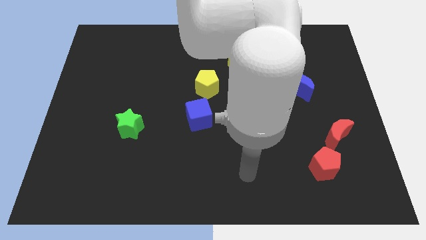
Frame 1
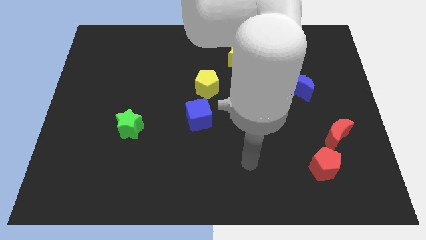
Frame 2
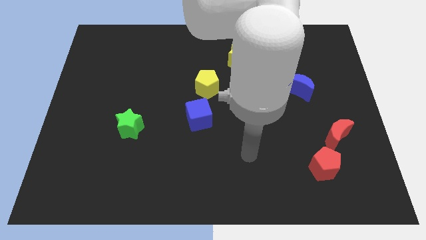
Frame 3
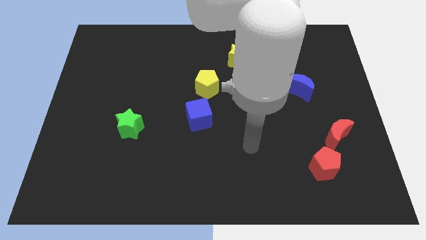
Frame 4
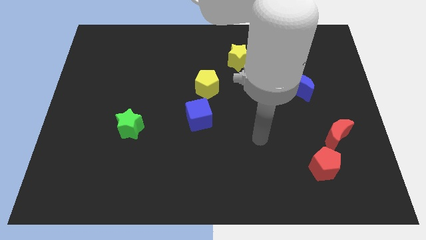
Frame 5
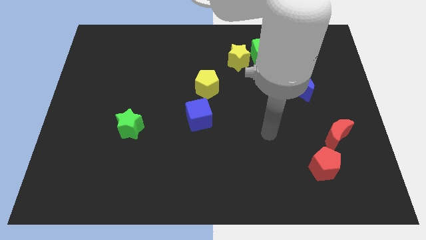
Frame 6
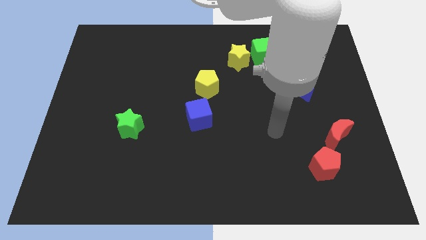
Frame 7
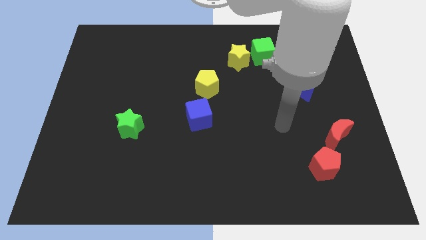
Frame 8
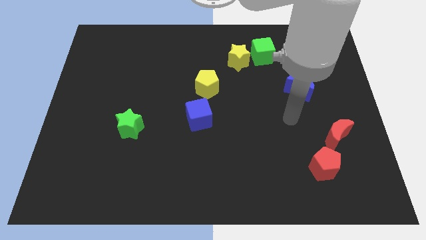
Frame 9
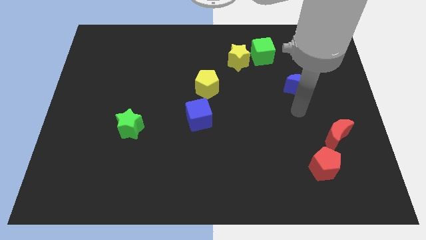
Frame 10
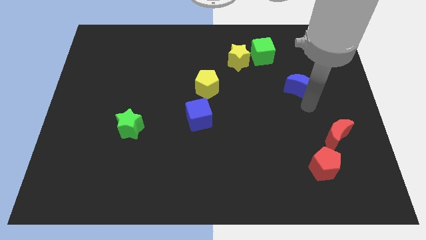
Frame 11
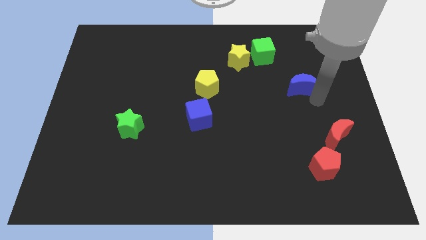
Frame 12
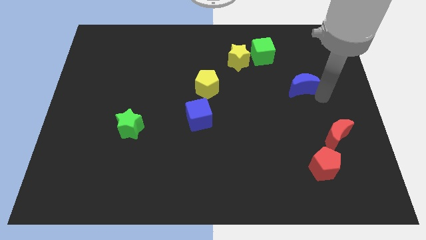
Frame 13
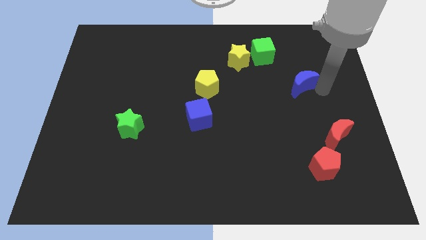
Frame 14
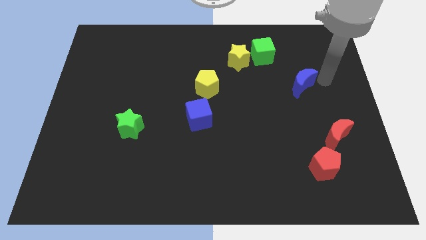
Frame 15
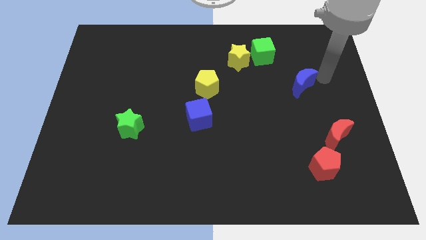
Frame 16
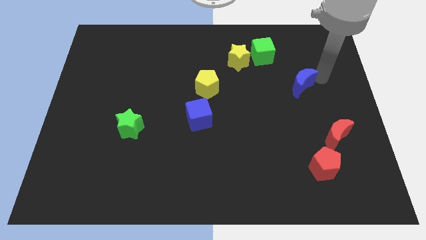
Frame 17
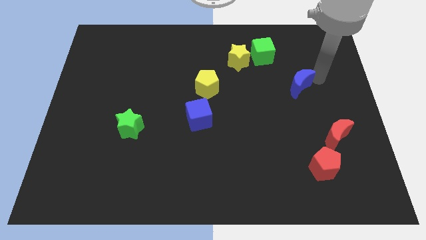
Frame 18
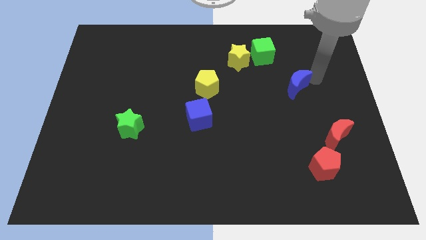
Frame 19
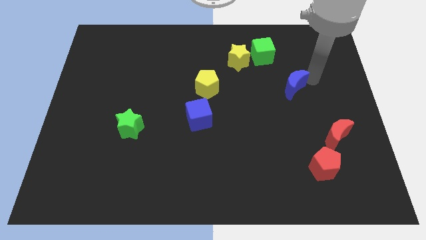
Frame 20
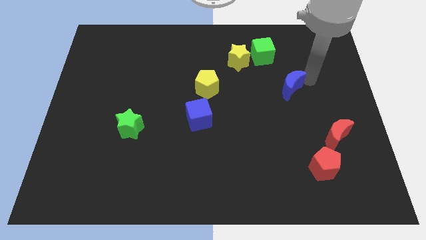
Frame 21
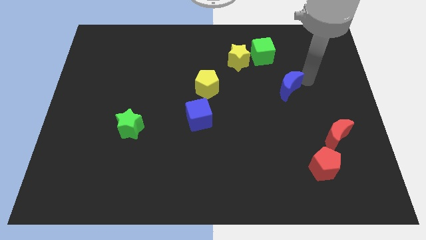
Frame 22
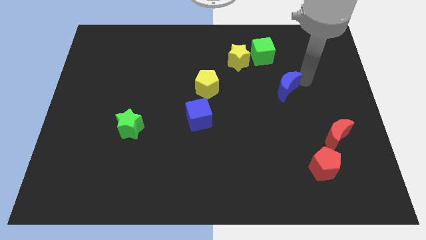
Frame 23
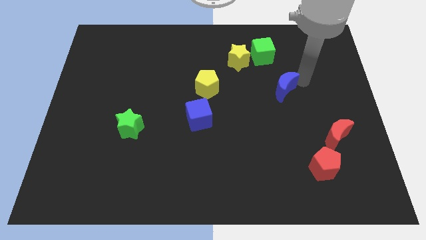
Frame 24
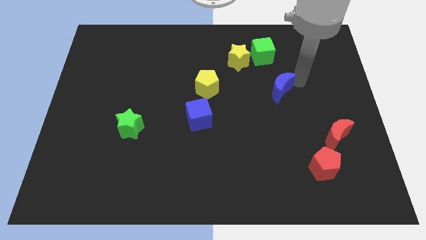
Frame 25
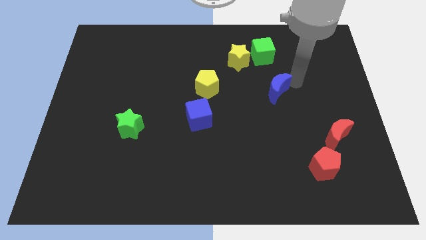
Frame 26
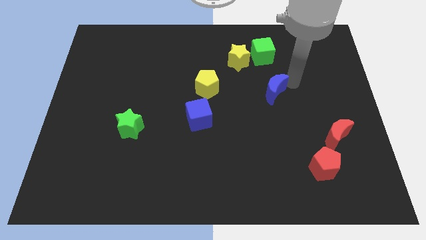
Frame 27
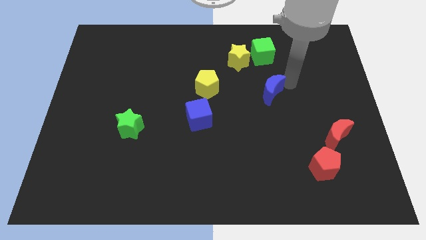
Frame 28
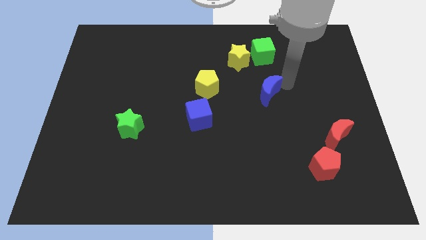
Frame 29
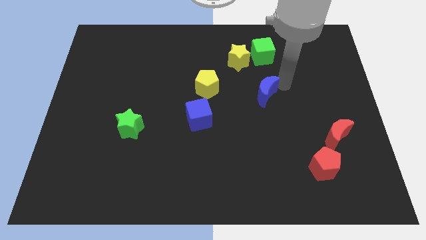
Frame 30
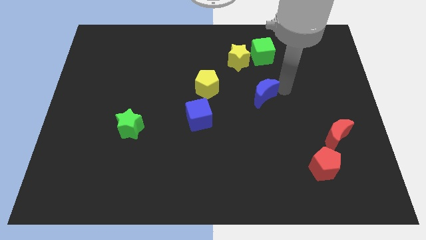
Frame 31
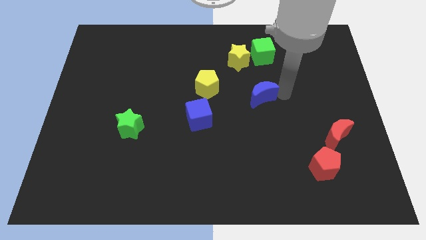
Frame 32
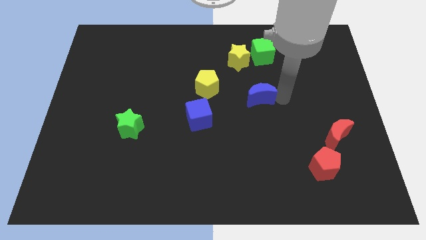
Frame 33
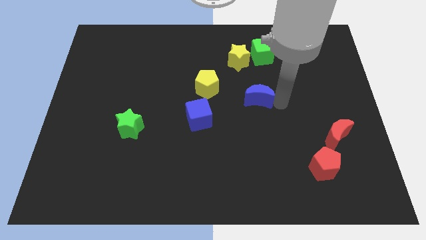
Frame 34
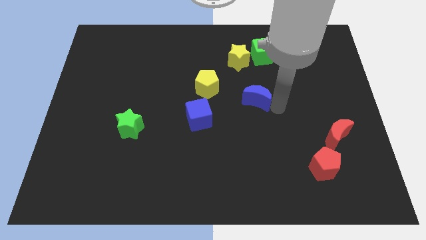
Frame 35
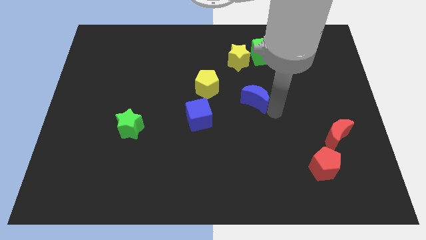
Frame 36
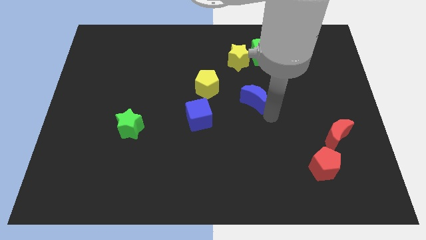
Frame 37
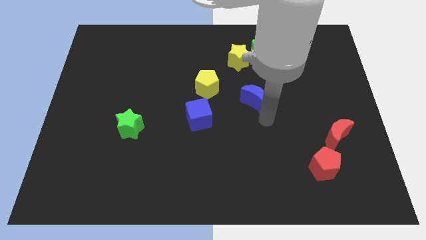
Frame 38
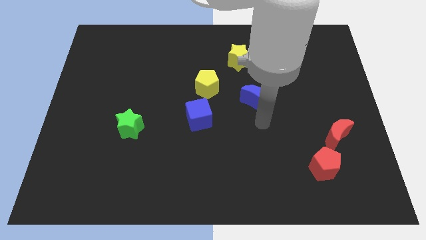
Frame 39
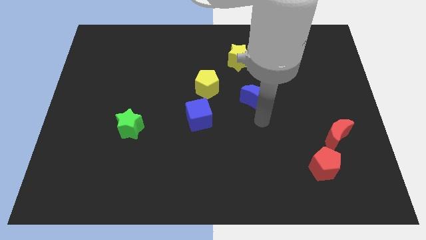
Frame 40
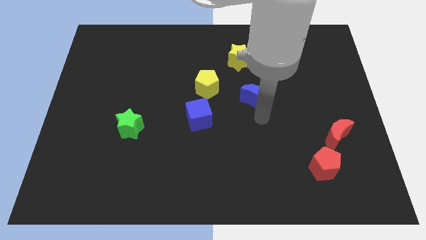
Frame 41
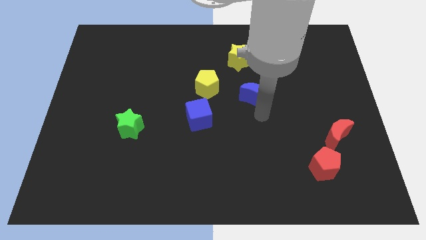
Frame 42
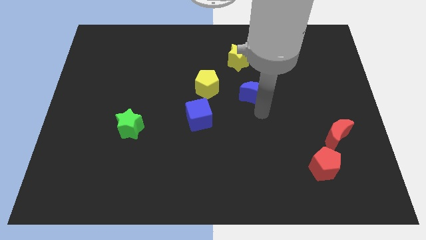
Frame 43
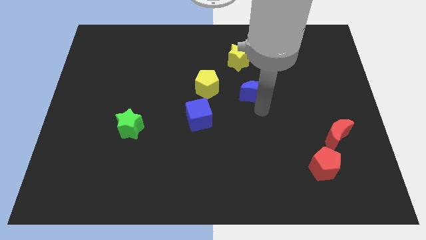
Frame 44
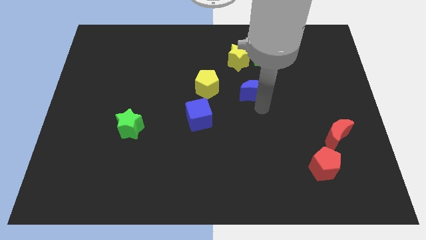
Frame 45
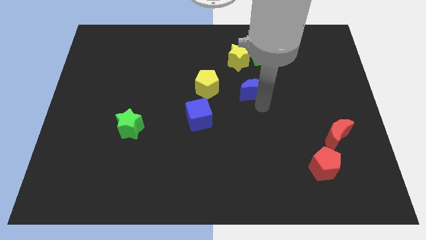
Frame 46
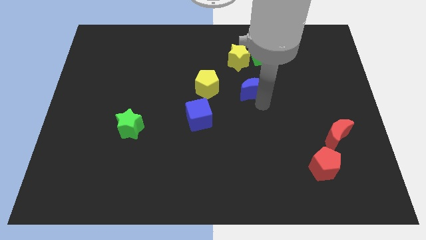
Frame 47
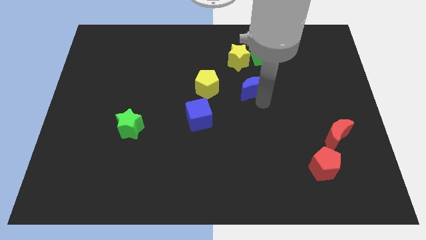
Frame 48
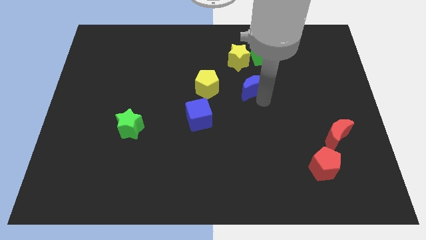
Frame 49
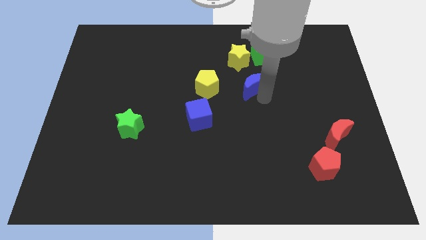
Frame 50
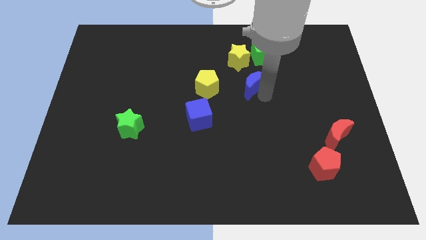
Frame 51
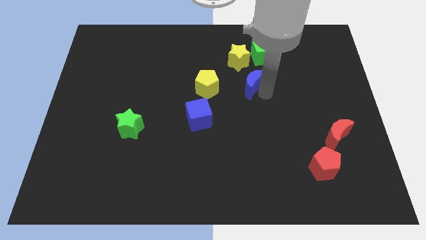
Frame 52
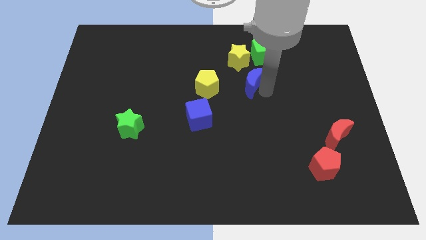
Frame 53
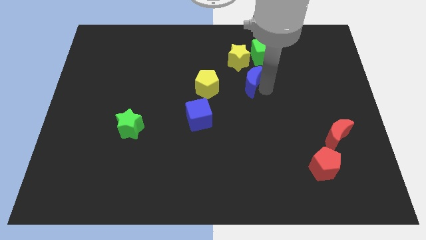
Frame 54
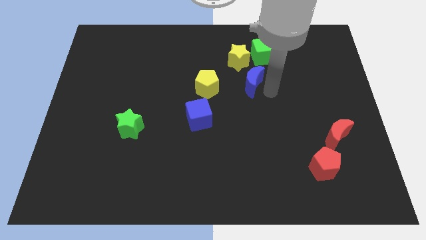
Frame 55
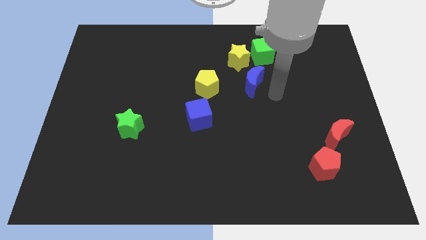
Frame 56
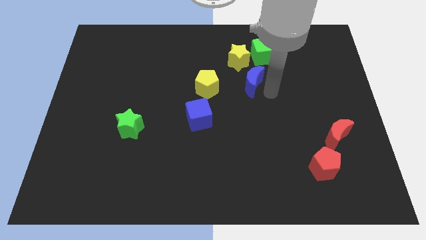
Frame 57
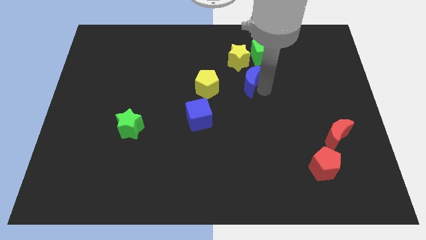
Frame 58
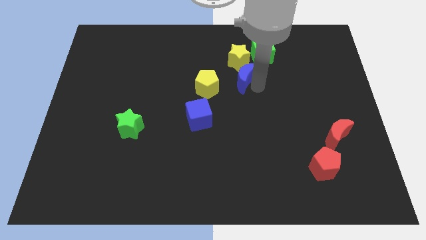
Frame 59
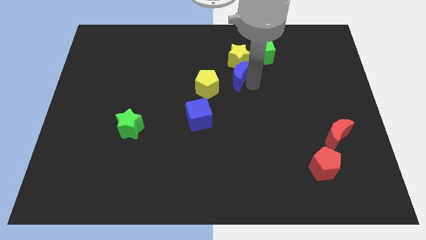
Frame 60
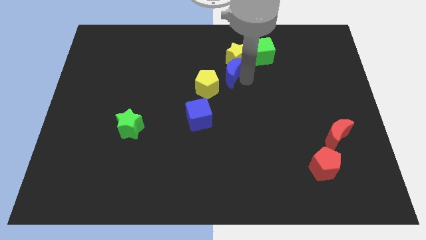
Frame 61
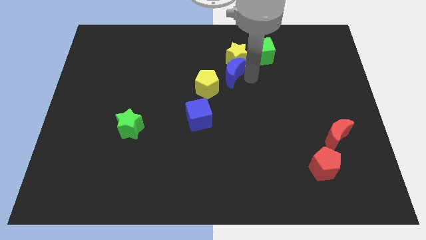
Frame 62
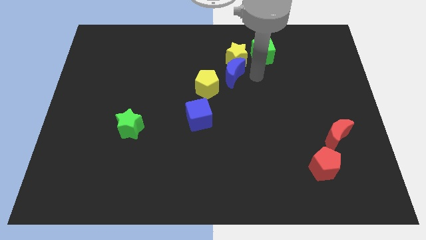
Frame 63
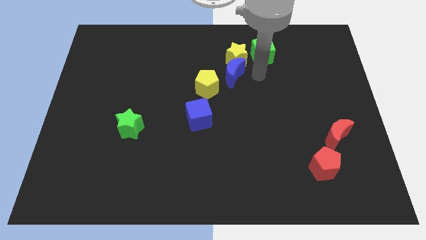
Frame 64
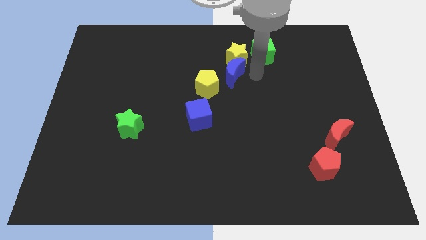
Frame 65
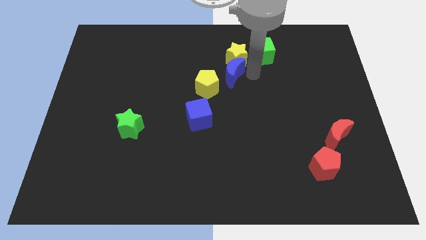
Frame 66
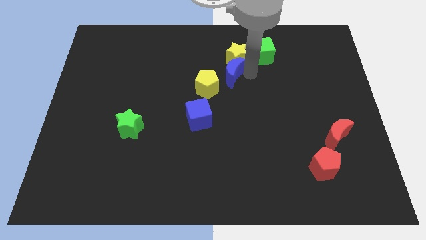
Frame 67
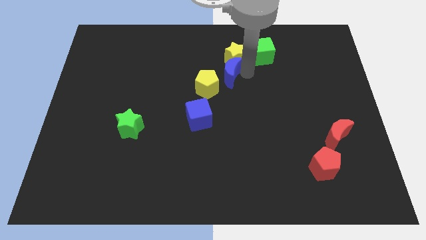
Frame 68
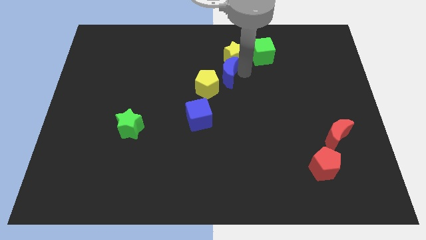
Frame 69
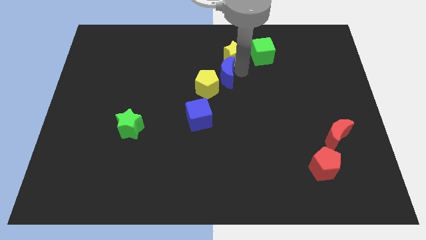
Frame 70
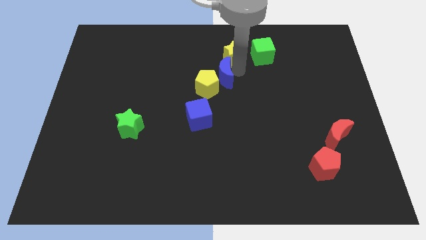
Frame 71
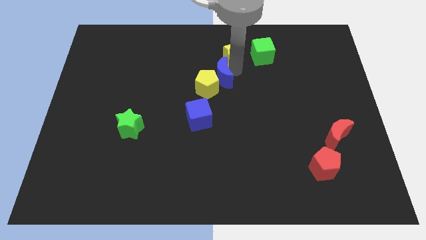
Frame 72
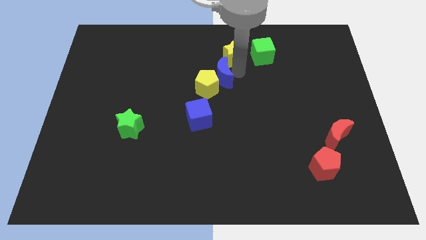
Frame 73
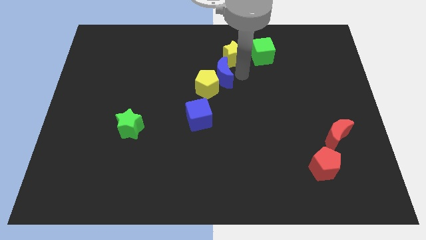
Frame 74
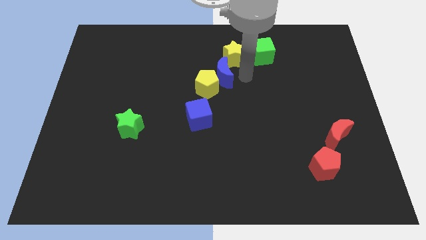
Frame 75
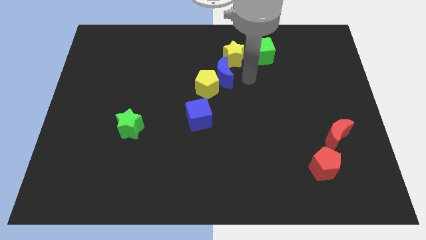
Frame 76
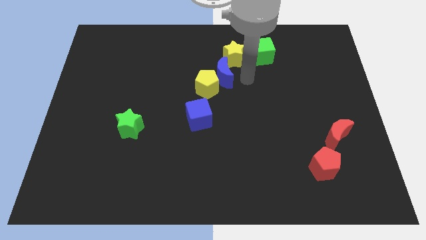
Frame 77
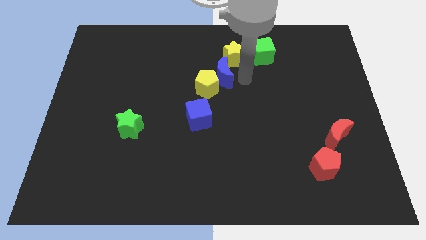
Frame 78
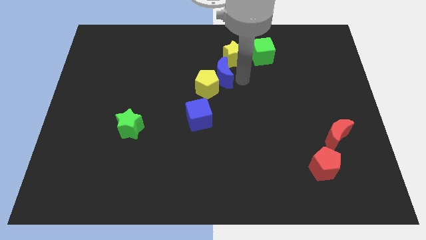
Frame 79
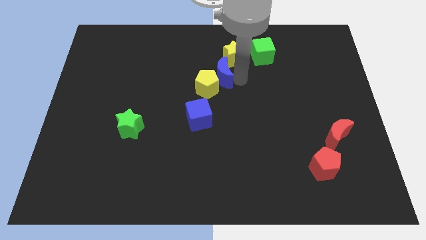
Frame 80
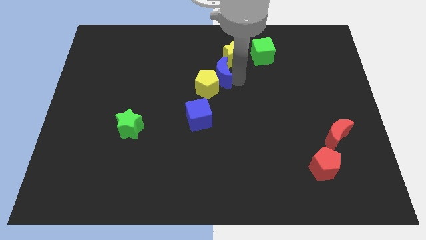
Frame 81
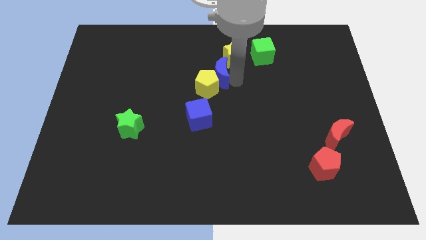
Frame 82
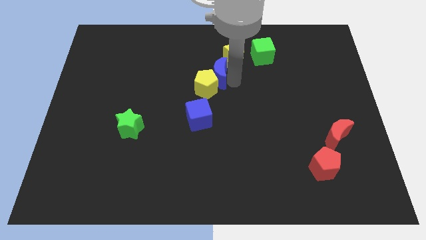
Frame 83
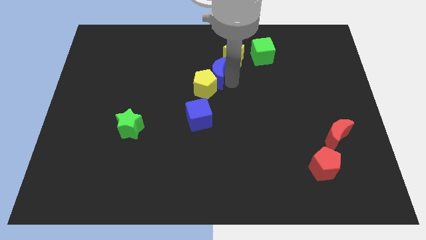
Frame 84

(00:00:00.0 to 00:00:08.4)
push the blue moon above the blue cube
